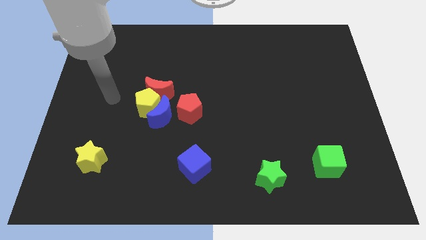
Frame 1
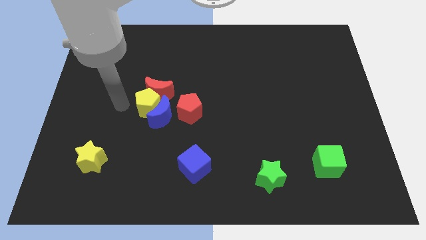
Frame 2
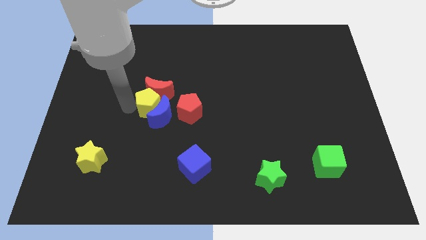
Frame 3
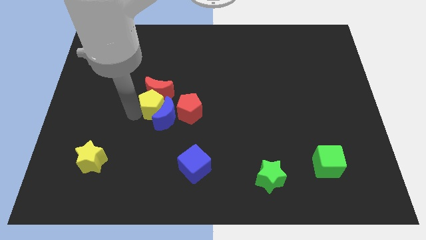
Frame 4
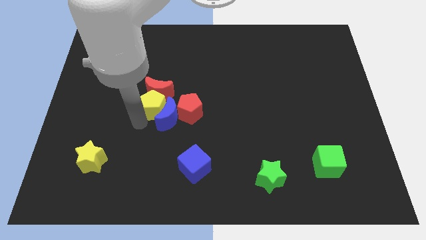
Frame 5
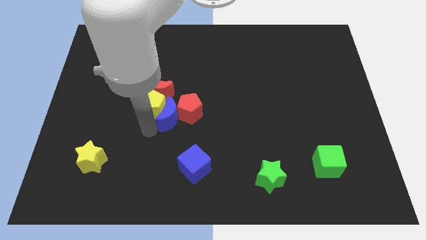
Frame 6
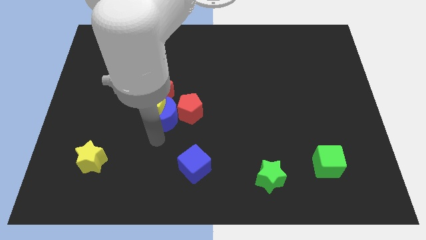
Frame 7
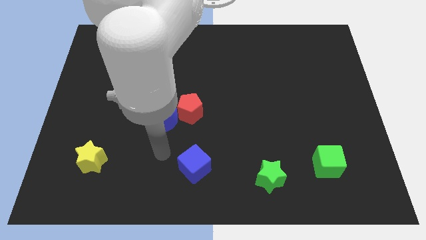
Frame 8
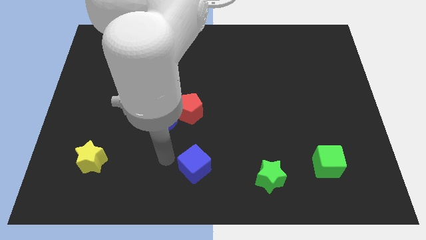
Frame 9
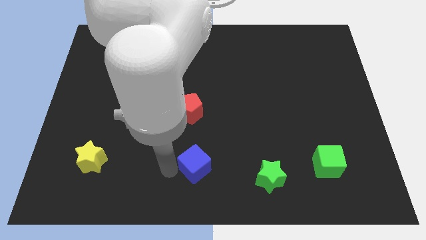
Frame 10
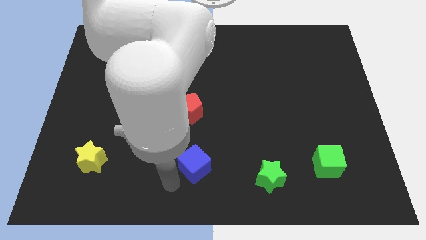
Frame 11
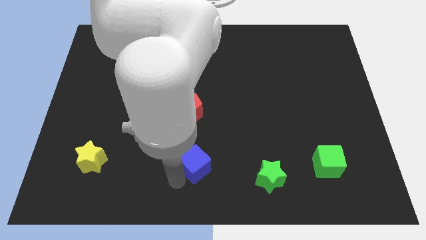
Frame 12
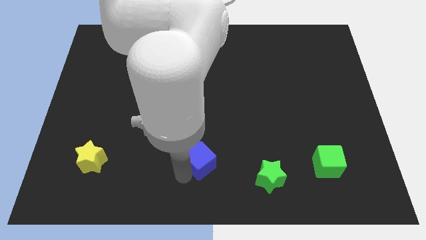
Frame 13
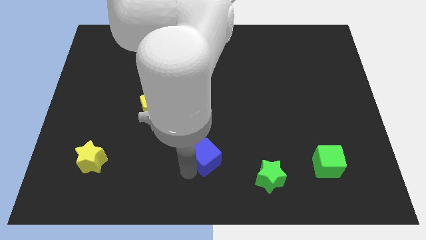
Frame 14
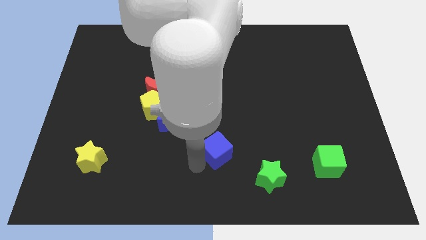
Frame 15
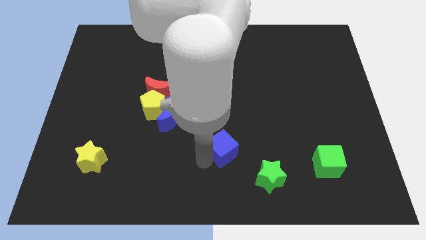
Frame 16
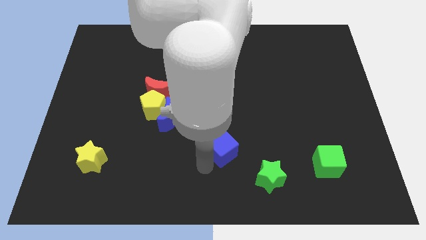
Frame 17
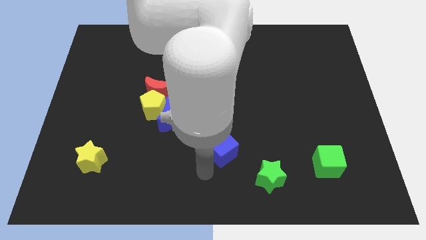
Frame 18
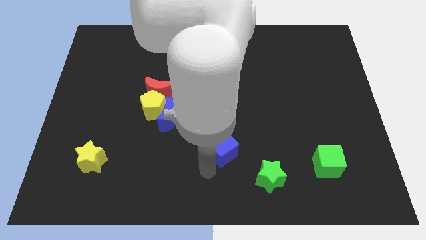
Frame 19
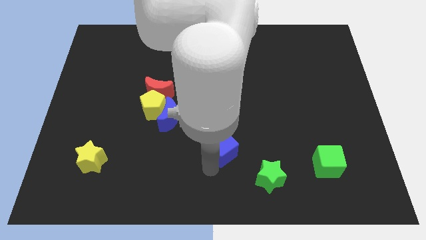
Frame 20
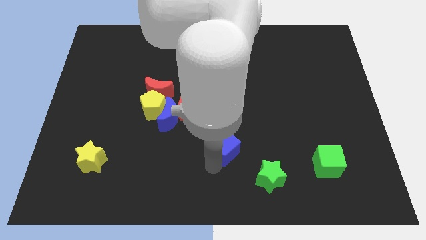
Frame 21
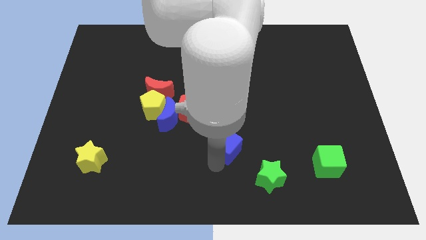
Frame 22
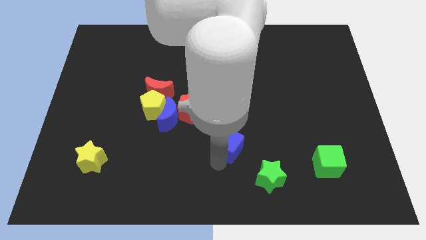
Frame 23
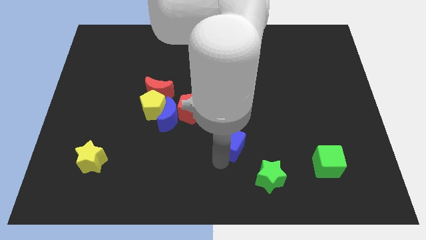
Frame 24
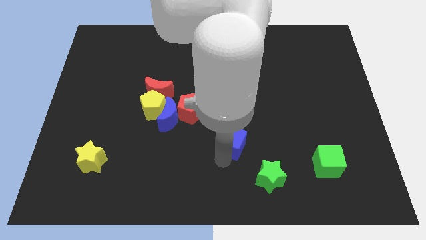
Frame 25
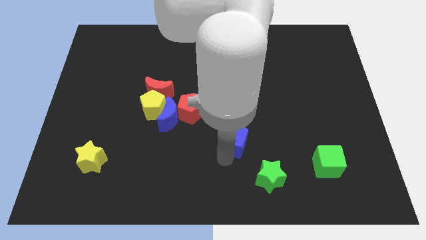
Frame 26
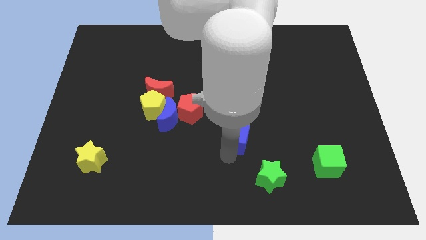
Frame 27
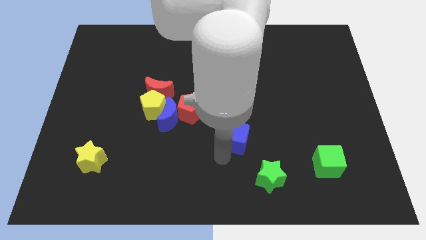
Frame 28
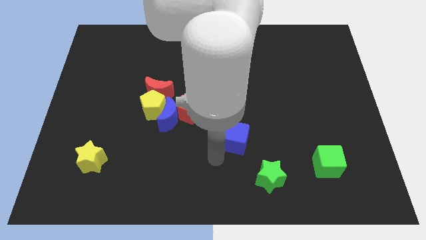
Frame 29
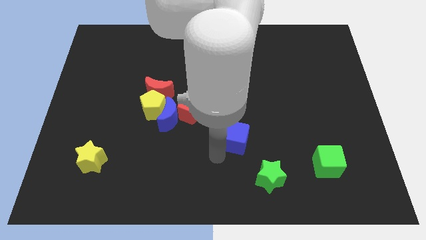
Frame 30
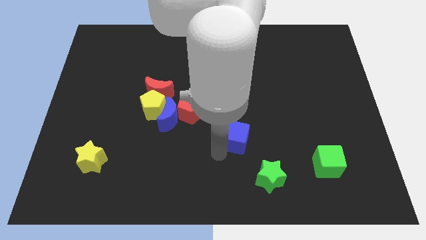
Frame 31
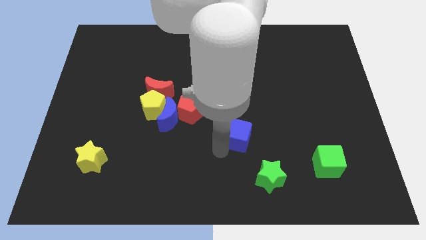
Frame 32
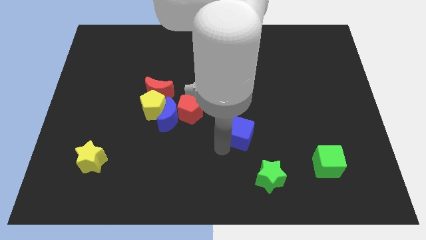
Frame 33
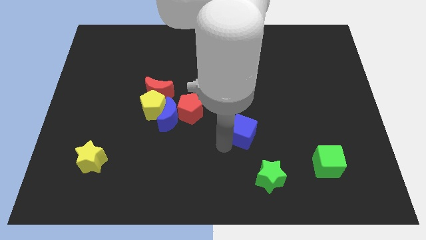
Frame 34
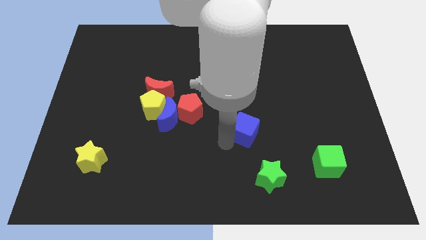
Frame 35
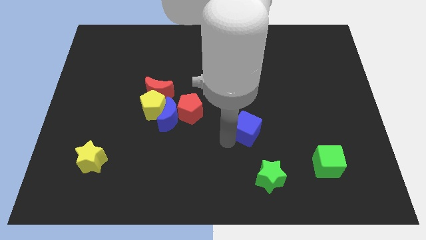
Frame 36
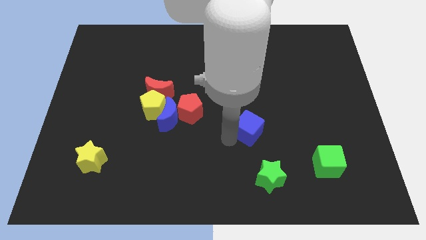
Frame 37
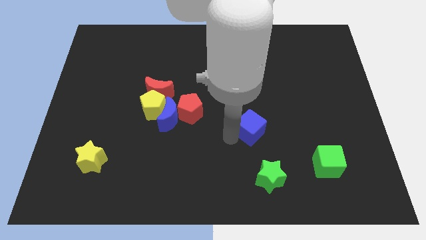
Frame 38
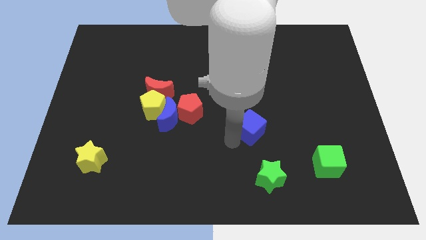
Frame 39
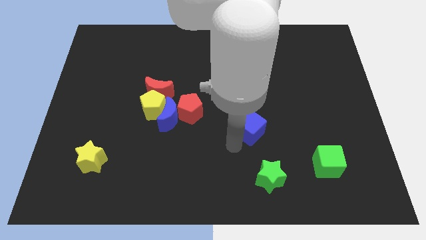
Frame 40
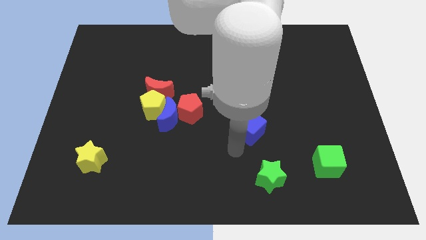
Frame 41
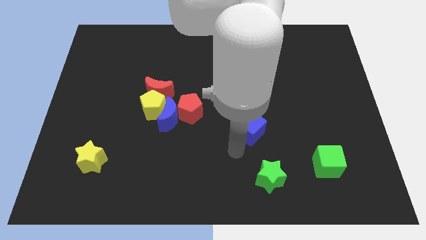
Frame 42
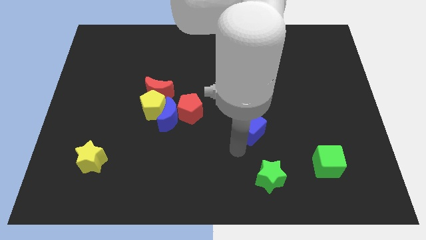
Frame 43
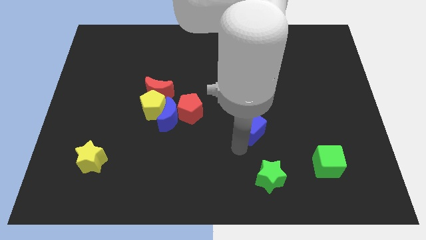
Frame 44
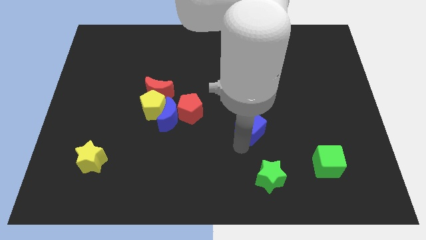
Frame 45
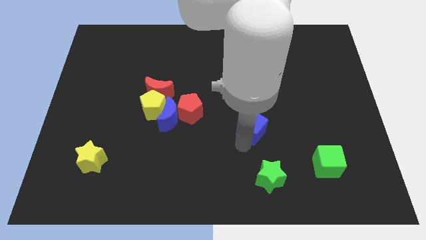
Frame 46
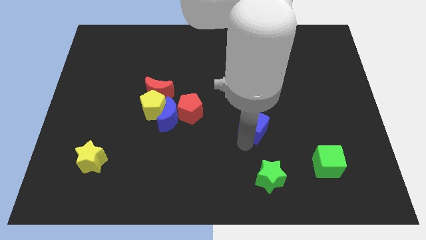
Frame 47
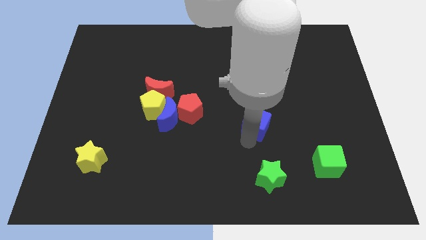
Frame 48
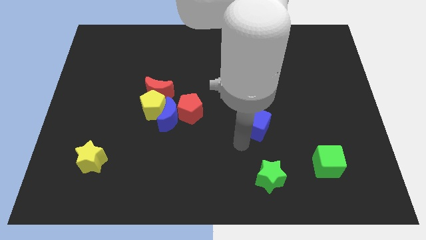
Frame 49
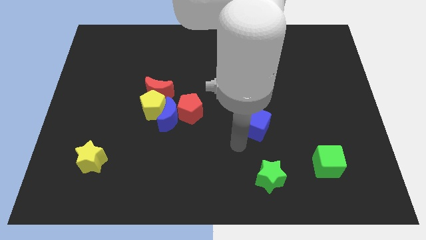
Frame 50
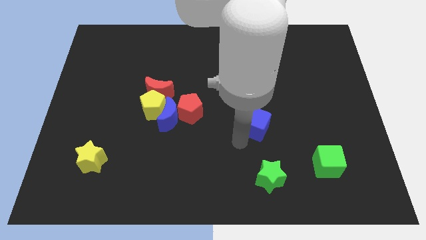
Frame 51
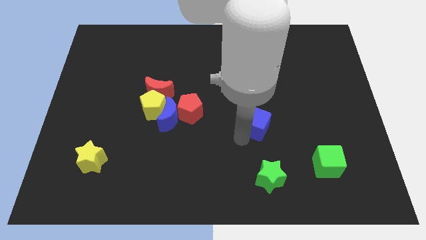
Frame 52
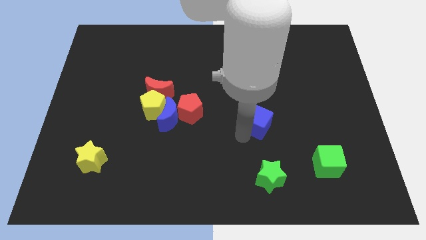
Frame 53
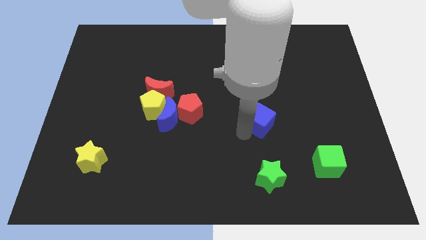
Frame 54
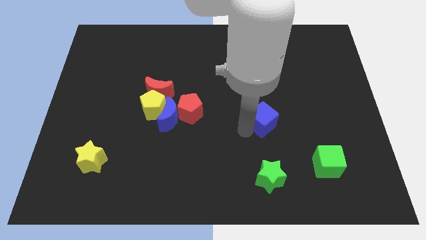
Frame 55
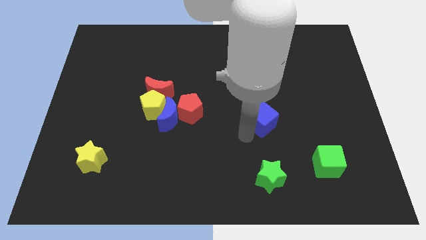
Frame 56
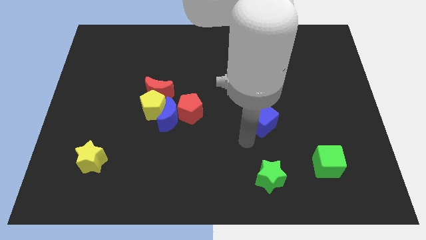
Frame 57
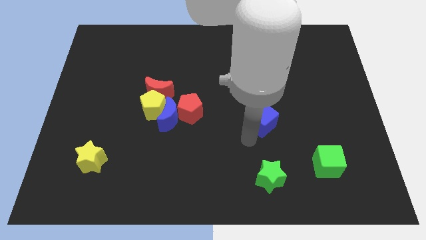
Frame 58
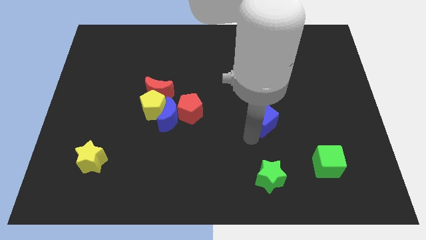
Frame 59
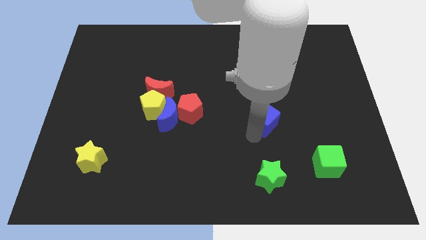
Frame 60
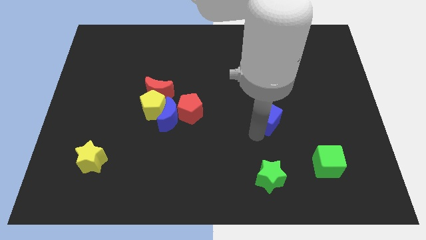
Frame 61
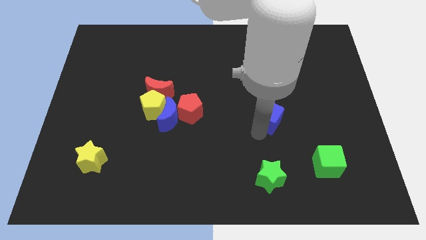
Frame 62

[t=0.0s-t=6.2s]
move the blue cube up and right

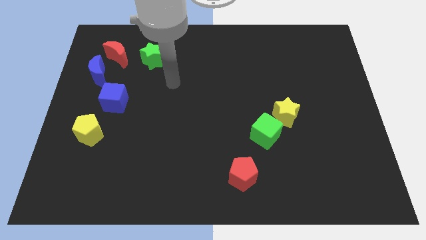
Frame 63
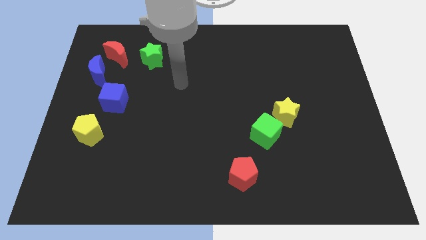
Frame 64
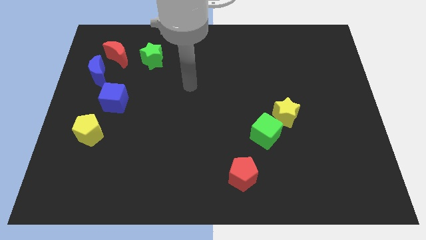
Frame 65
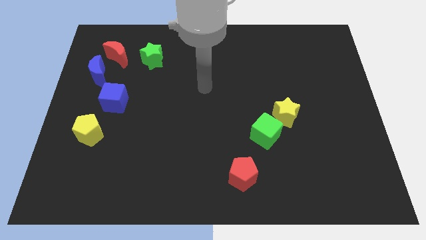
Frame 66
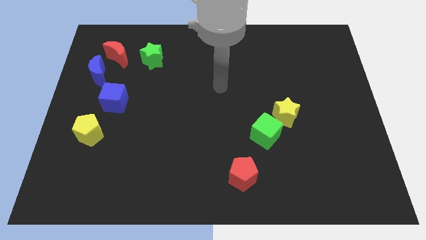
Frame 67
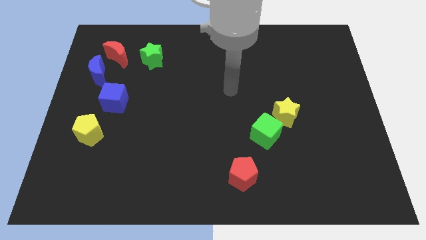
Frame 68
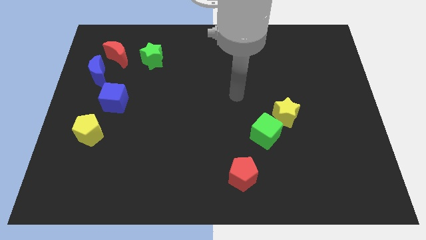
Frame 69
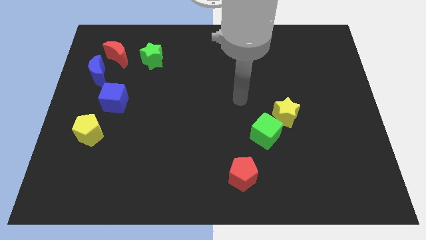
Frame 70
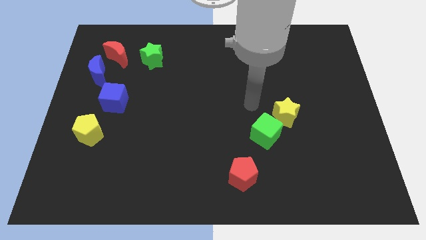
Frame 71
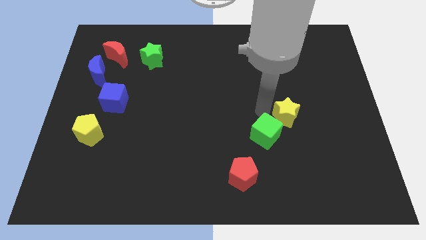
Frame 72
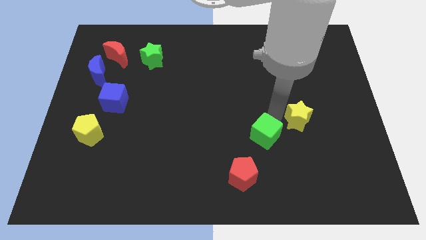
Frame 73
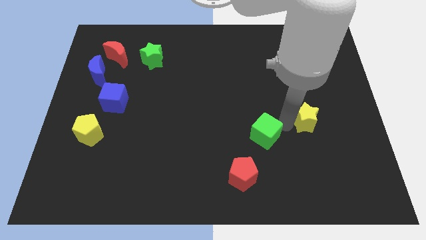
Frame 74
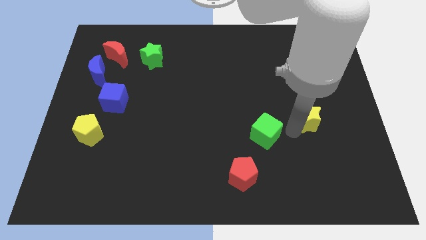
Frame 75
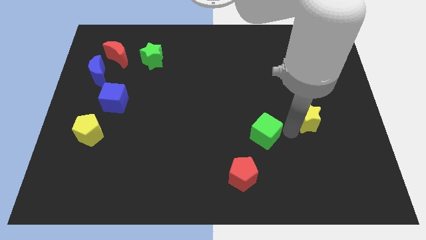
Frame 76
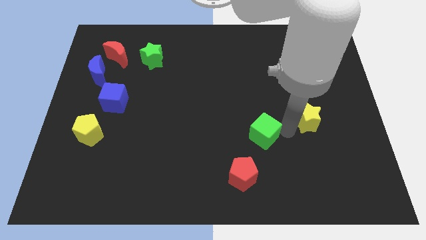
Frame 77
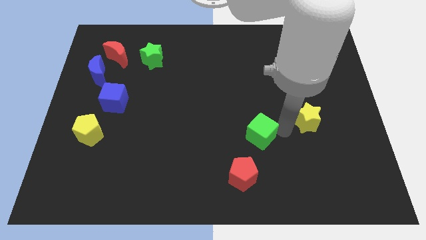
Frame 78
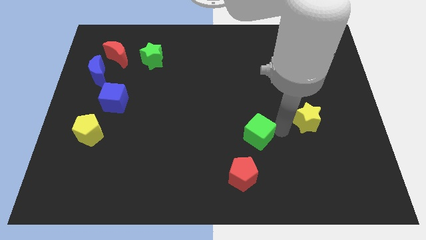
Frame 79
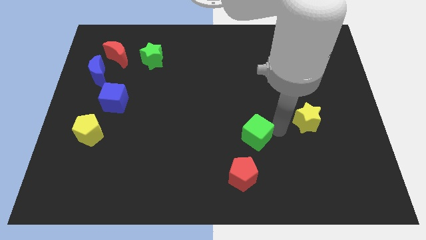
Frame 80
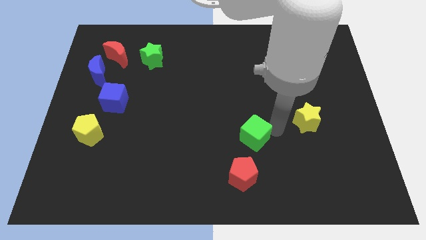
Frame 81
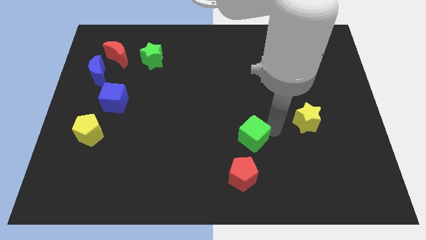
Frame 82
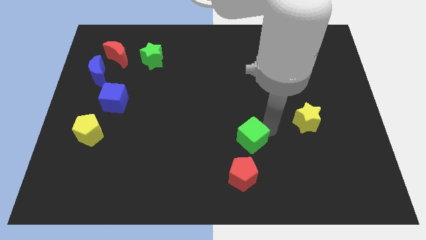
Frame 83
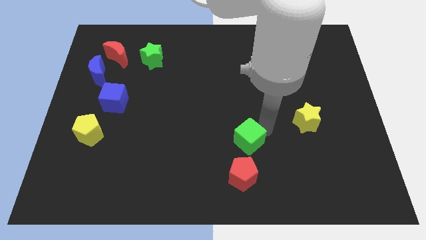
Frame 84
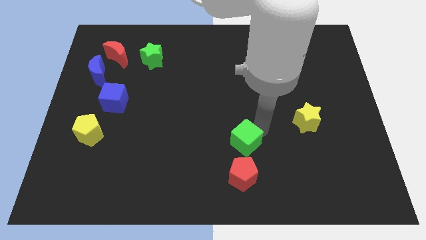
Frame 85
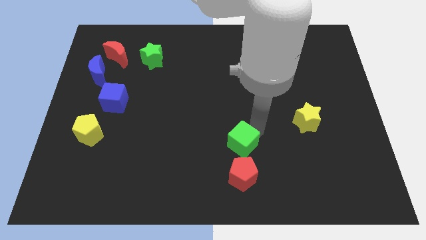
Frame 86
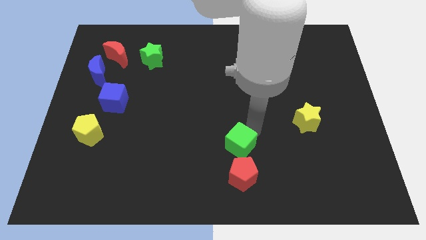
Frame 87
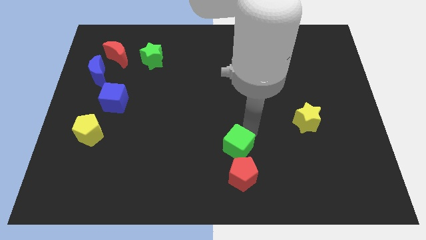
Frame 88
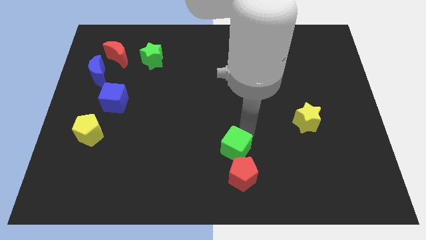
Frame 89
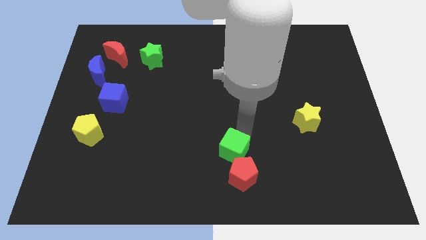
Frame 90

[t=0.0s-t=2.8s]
move the green cube to the left a little
